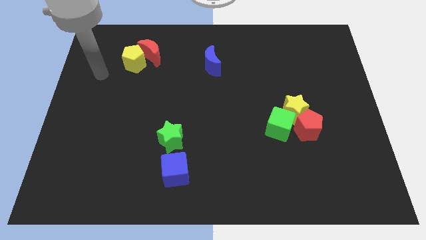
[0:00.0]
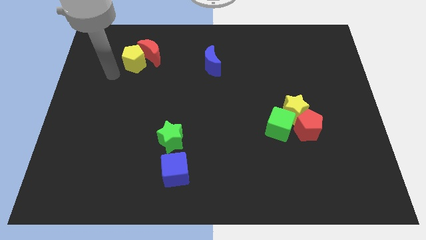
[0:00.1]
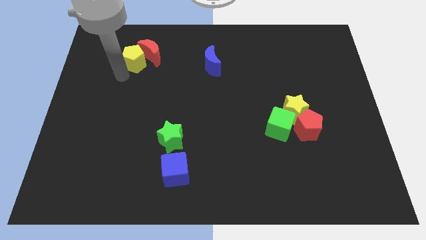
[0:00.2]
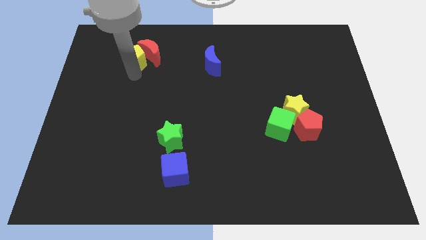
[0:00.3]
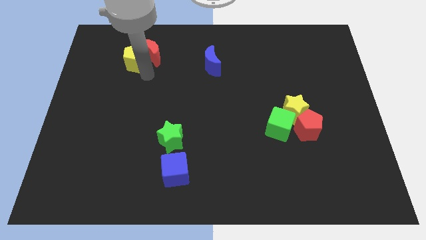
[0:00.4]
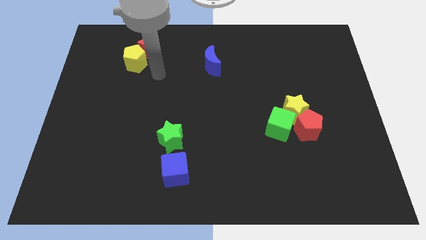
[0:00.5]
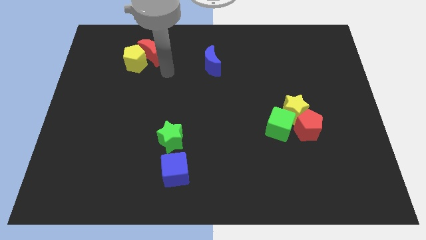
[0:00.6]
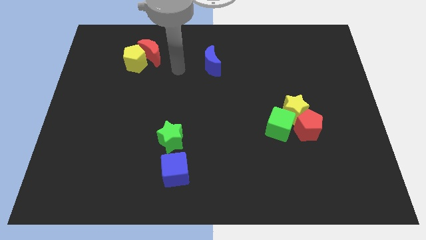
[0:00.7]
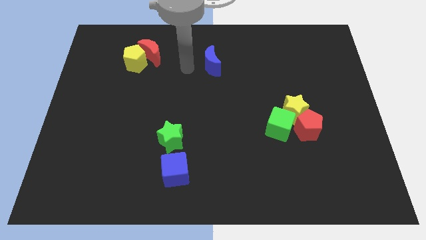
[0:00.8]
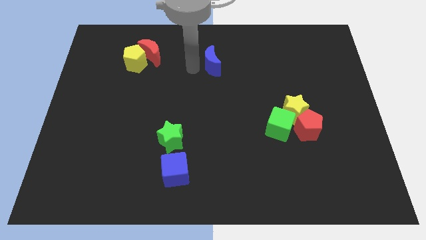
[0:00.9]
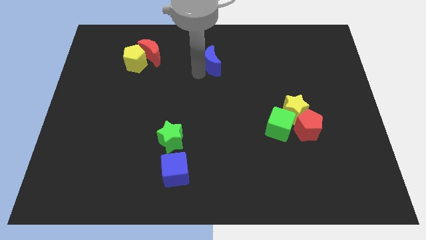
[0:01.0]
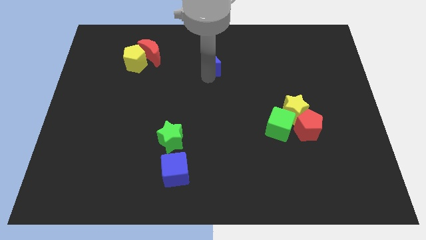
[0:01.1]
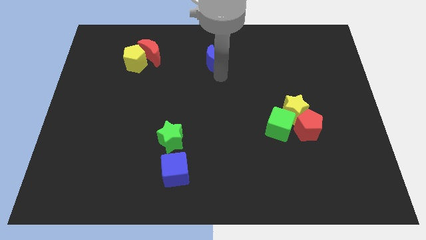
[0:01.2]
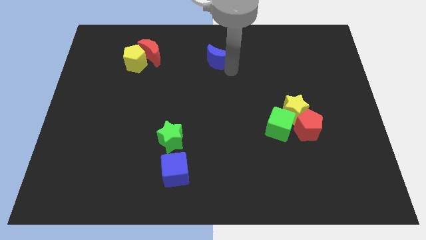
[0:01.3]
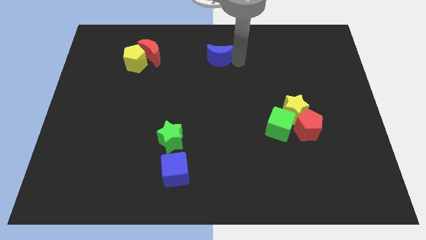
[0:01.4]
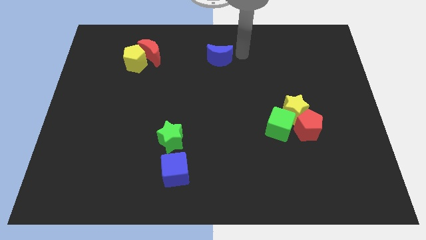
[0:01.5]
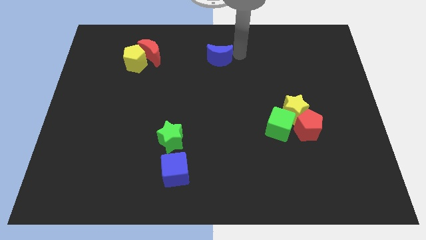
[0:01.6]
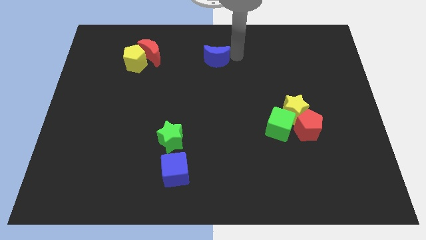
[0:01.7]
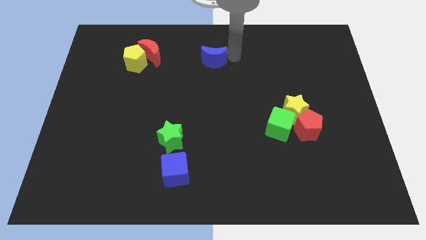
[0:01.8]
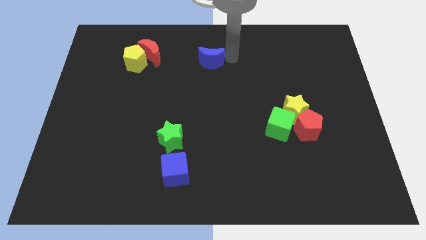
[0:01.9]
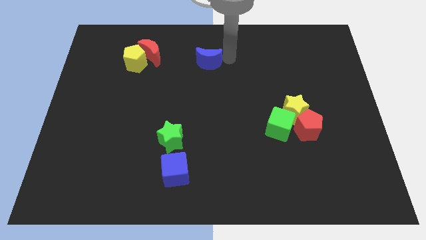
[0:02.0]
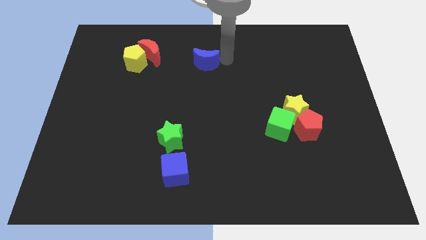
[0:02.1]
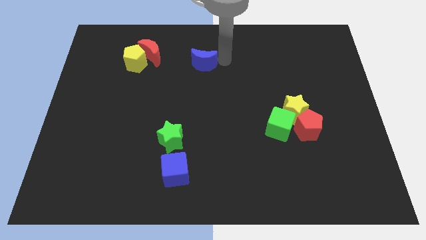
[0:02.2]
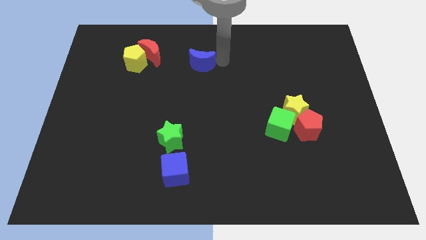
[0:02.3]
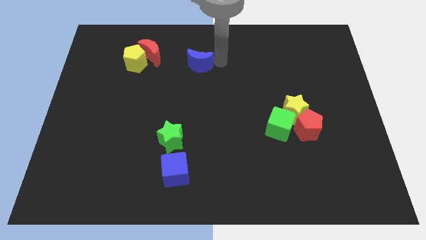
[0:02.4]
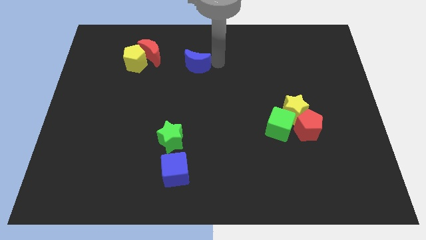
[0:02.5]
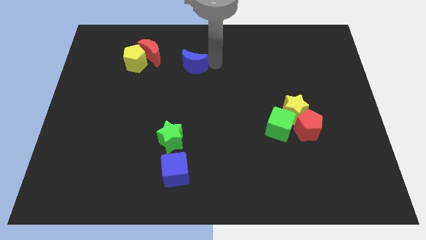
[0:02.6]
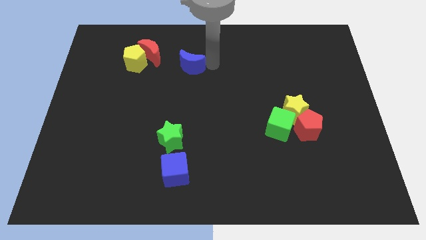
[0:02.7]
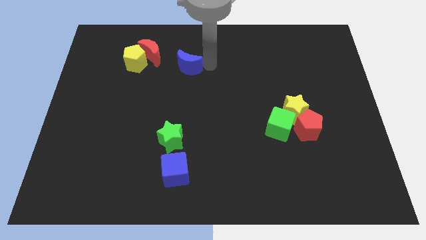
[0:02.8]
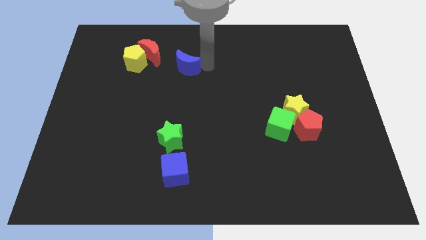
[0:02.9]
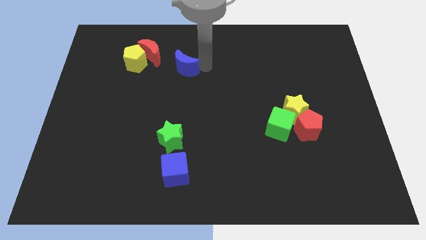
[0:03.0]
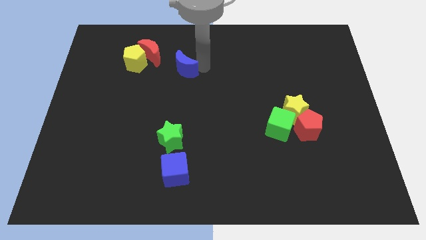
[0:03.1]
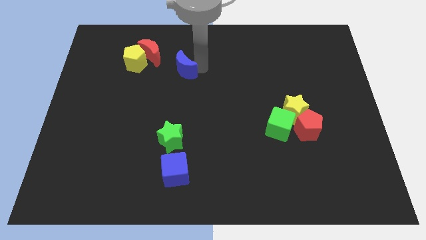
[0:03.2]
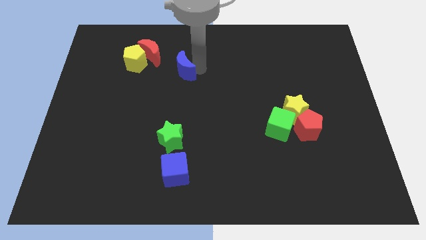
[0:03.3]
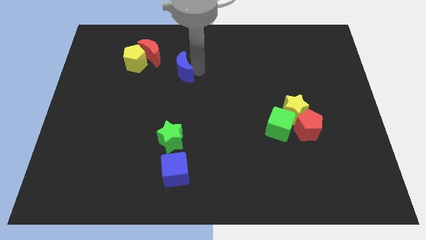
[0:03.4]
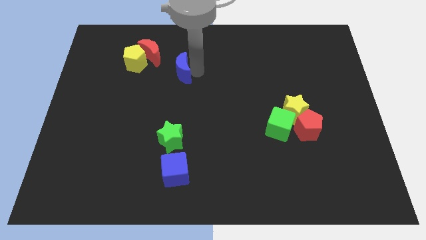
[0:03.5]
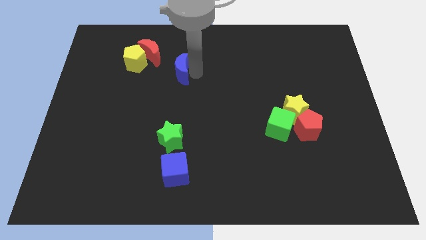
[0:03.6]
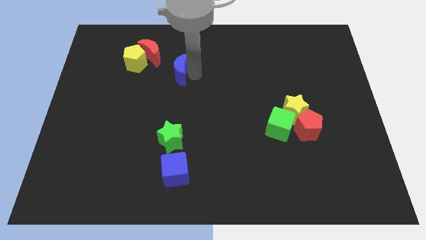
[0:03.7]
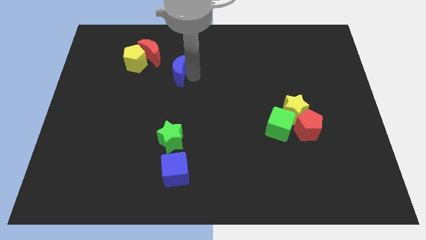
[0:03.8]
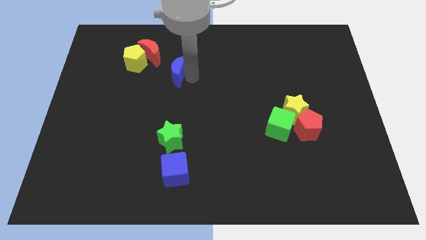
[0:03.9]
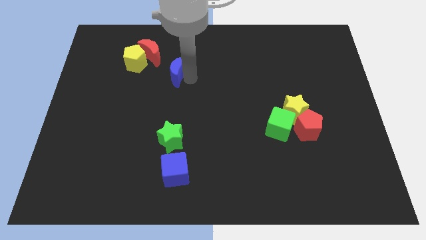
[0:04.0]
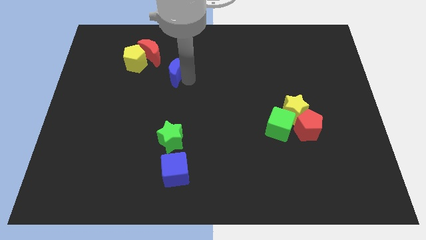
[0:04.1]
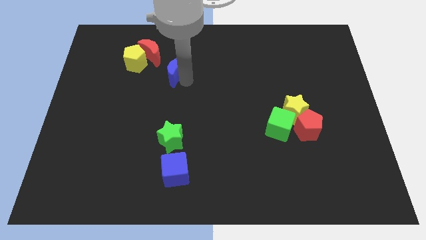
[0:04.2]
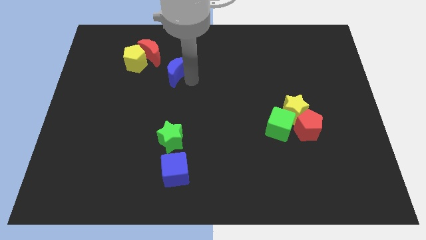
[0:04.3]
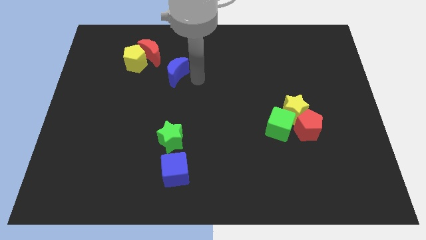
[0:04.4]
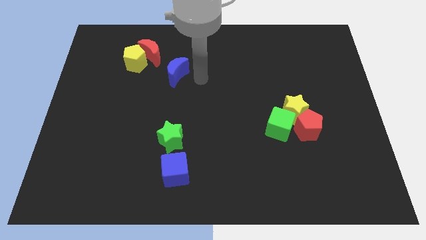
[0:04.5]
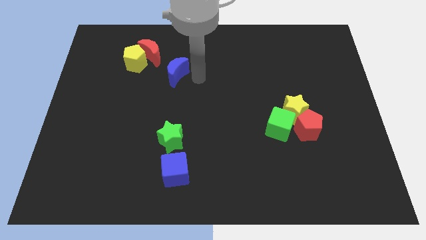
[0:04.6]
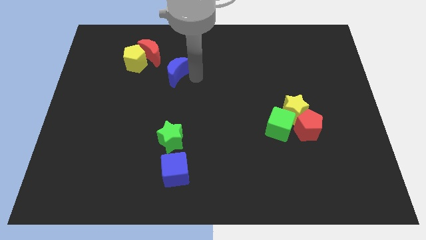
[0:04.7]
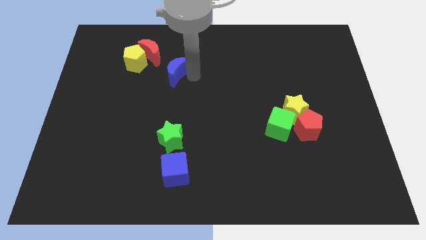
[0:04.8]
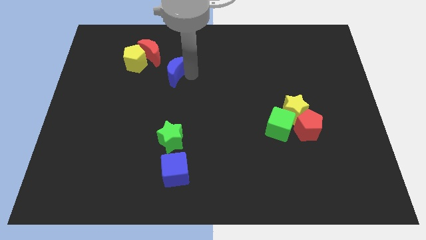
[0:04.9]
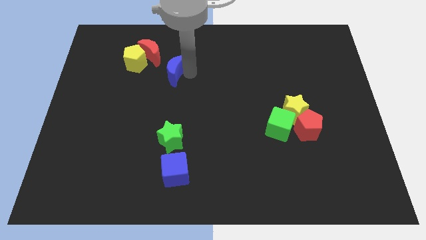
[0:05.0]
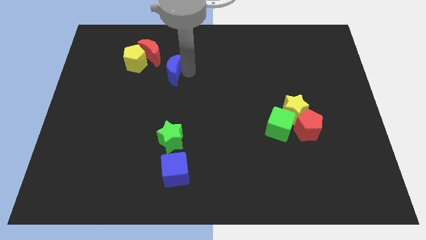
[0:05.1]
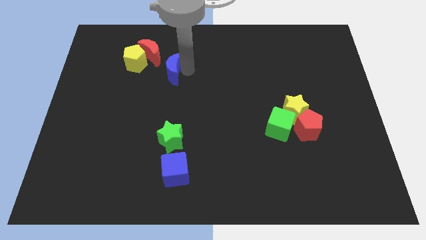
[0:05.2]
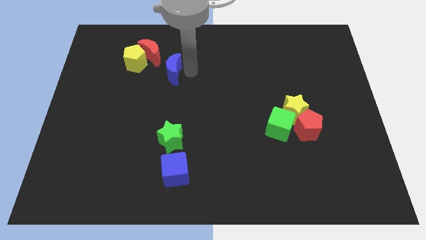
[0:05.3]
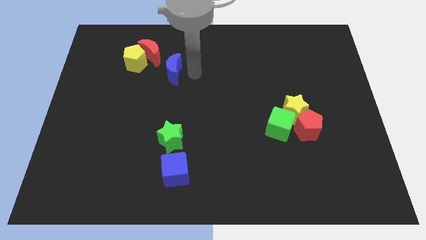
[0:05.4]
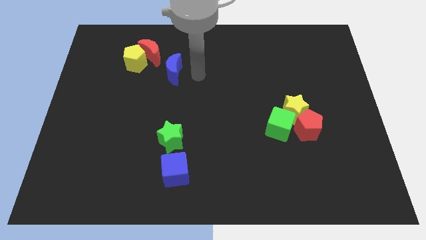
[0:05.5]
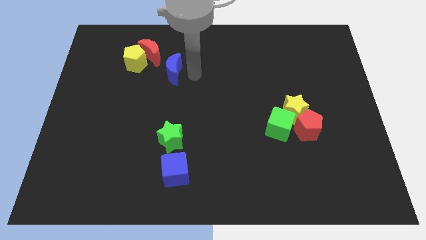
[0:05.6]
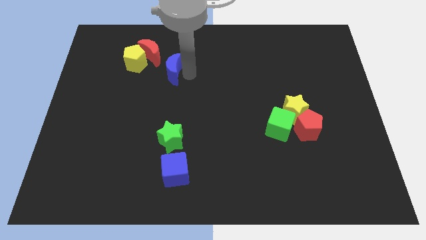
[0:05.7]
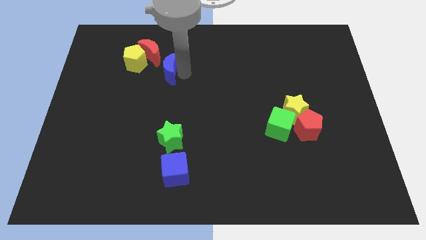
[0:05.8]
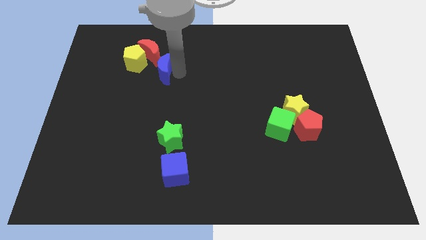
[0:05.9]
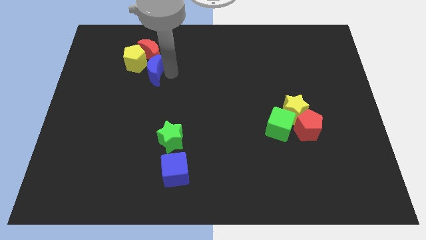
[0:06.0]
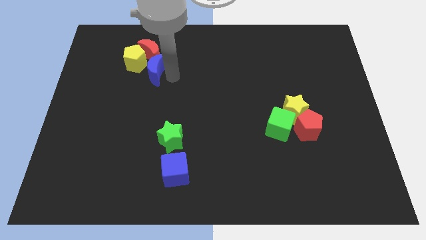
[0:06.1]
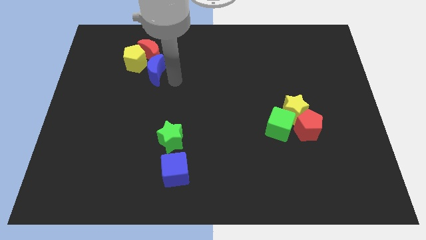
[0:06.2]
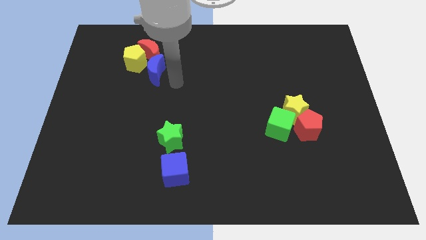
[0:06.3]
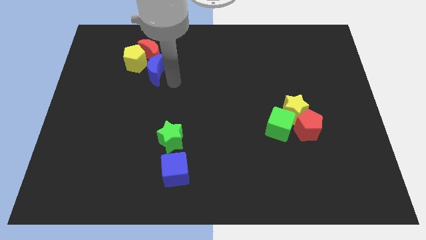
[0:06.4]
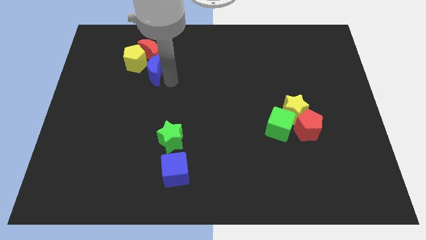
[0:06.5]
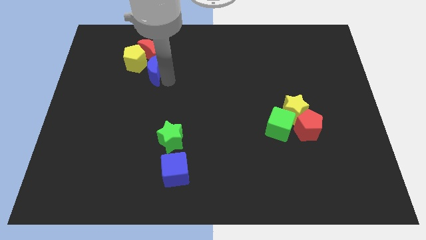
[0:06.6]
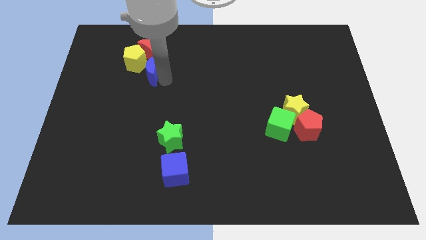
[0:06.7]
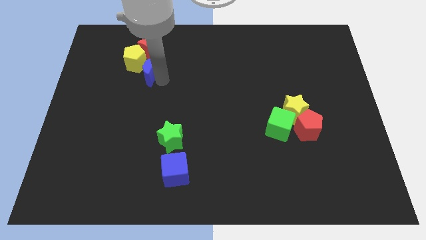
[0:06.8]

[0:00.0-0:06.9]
move the blue moon close to the yellow pentagon
